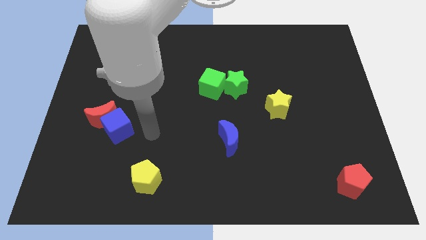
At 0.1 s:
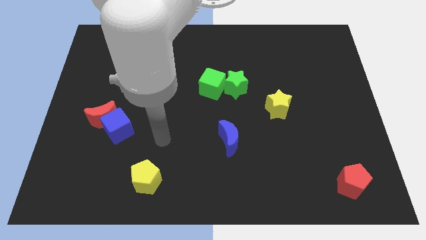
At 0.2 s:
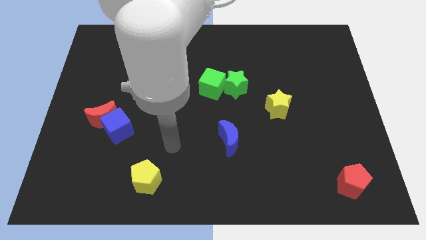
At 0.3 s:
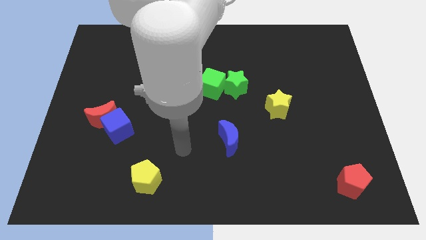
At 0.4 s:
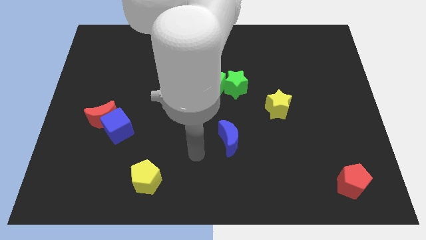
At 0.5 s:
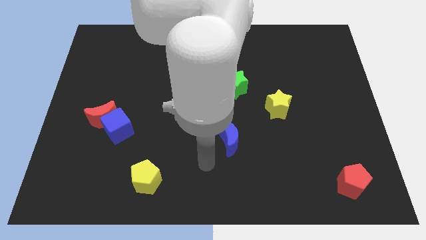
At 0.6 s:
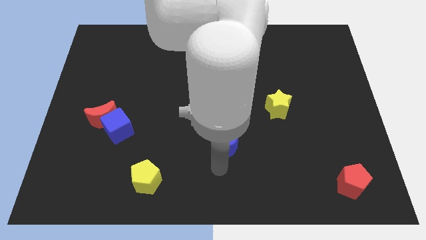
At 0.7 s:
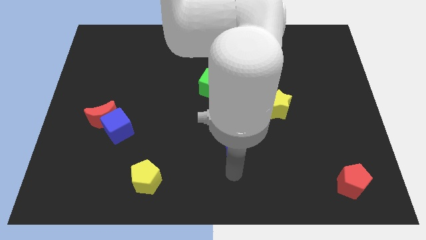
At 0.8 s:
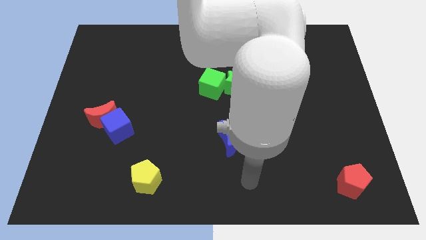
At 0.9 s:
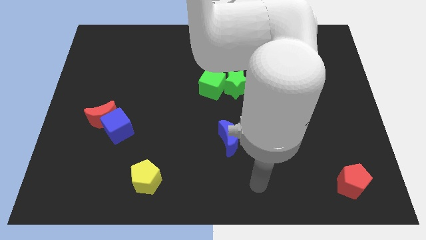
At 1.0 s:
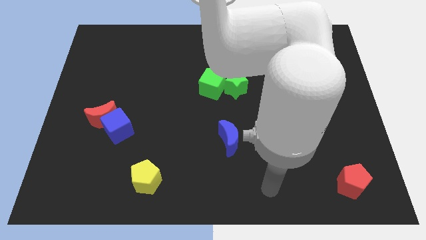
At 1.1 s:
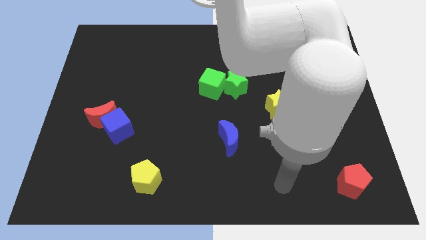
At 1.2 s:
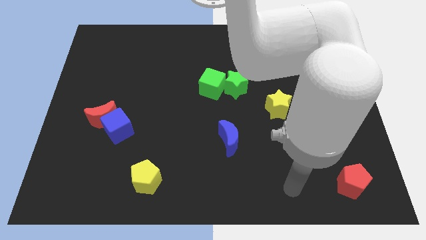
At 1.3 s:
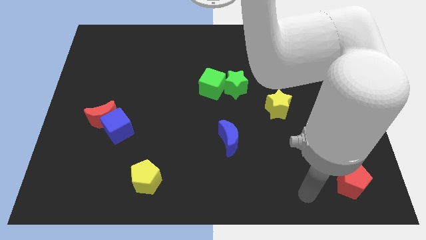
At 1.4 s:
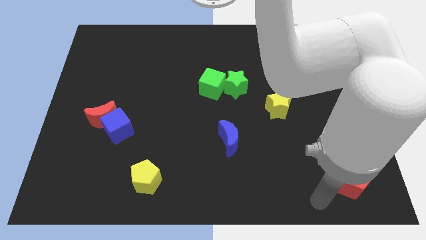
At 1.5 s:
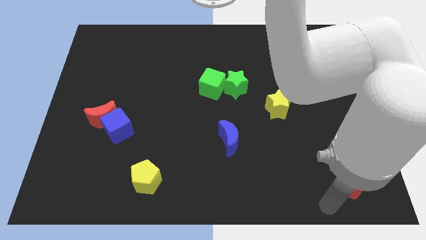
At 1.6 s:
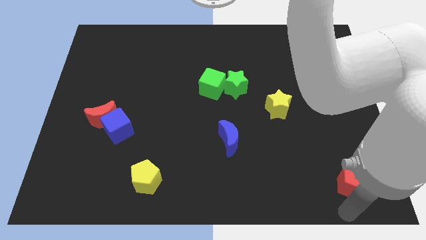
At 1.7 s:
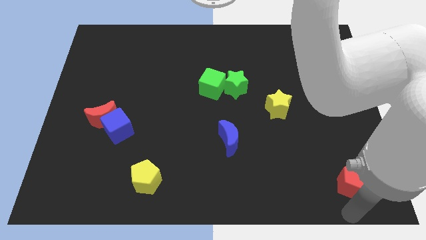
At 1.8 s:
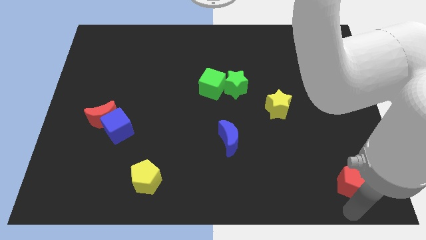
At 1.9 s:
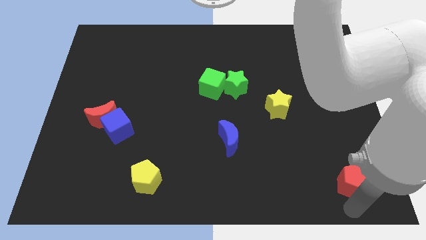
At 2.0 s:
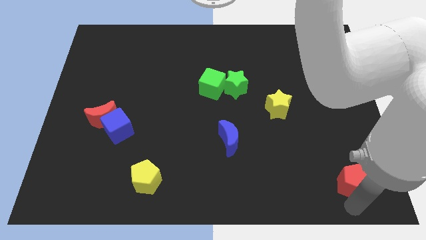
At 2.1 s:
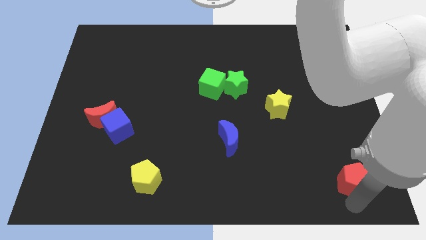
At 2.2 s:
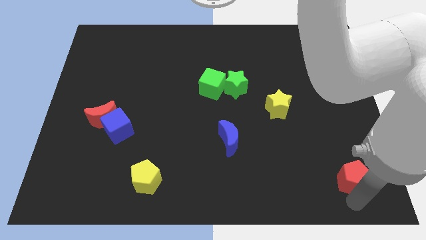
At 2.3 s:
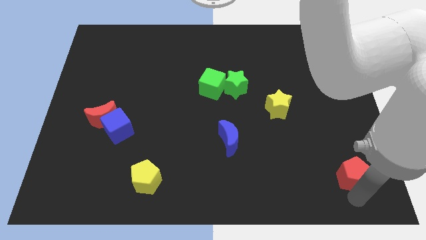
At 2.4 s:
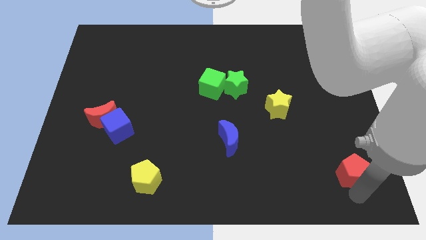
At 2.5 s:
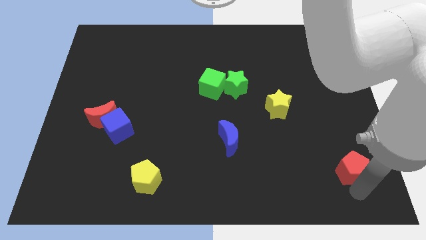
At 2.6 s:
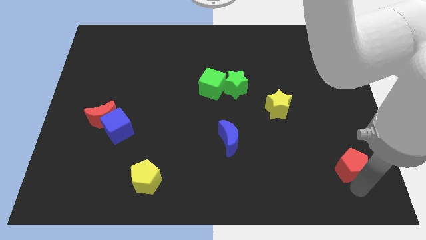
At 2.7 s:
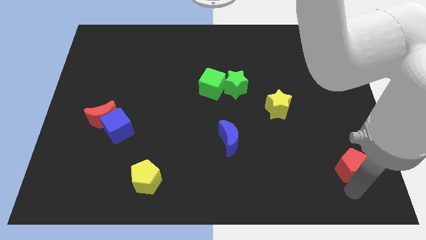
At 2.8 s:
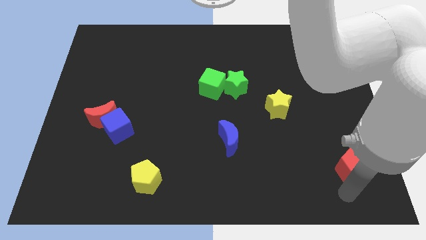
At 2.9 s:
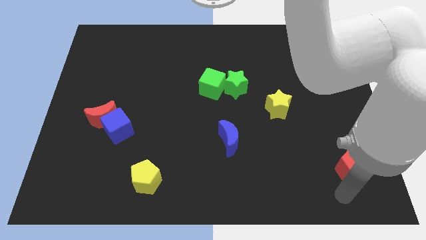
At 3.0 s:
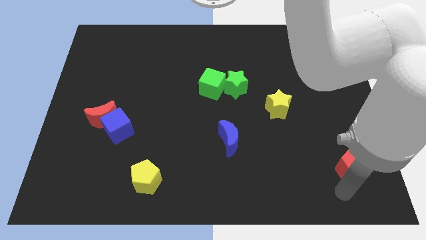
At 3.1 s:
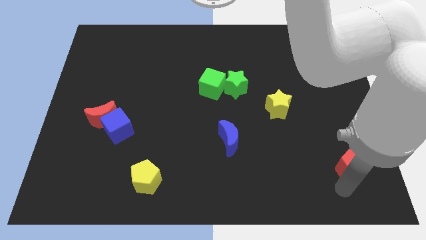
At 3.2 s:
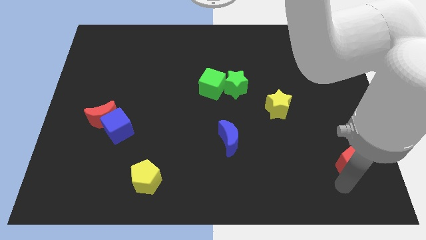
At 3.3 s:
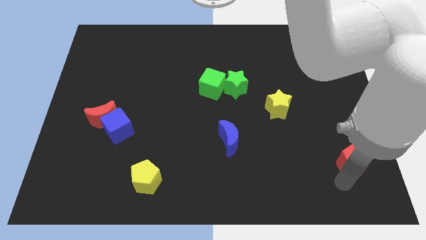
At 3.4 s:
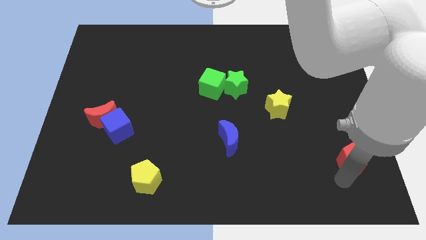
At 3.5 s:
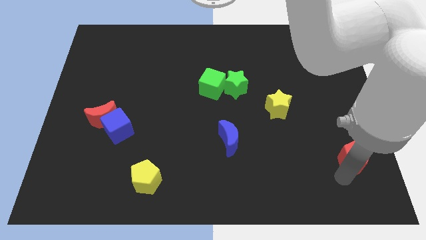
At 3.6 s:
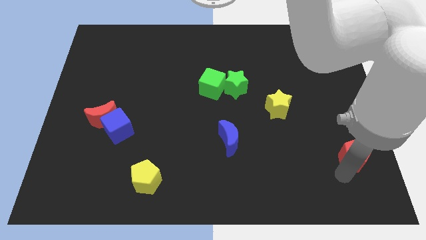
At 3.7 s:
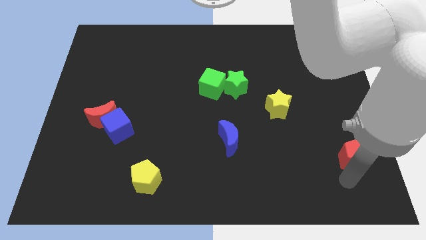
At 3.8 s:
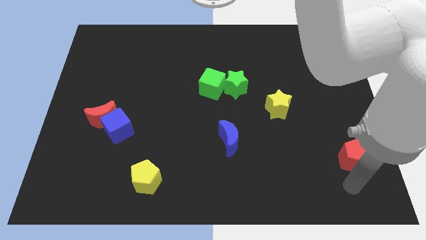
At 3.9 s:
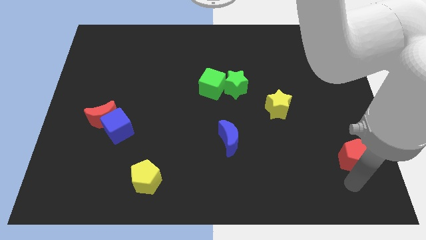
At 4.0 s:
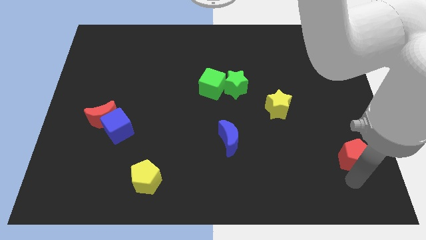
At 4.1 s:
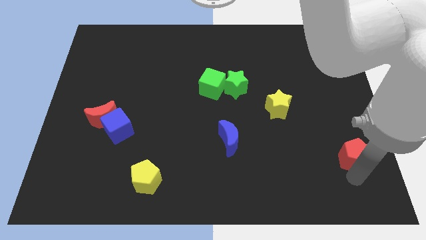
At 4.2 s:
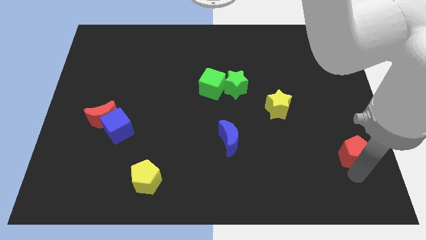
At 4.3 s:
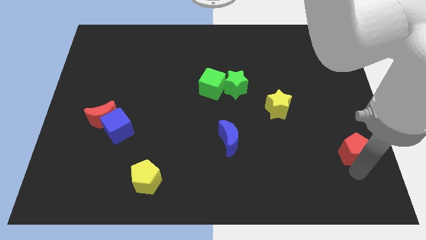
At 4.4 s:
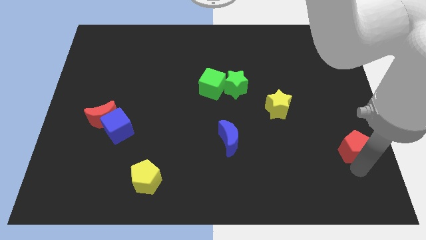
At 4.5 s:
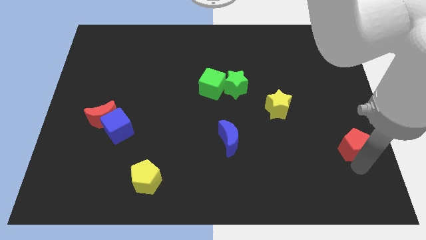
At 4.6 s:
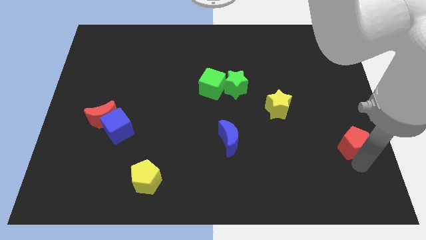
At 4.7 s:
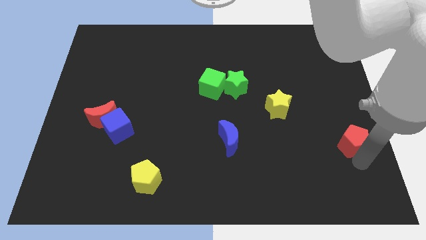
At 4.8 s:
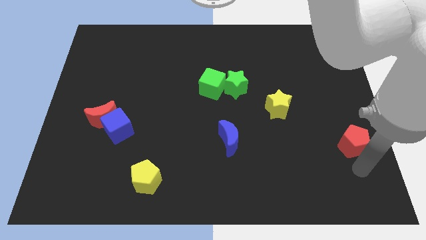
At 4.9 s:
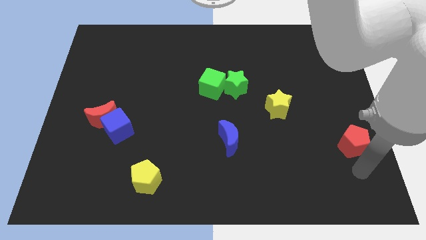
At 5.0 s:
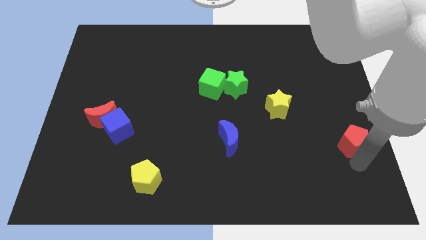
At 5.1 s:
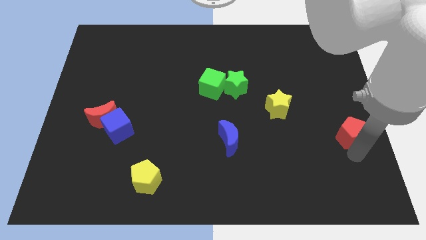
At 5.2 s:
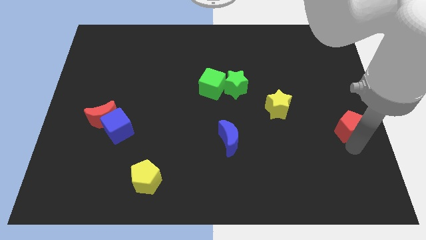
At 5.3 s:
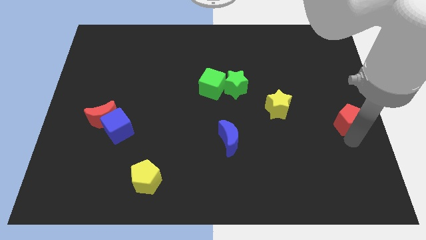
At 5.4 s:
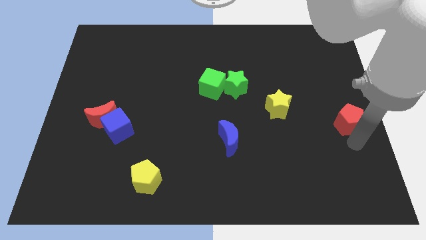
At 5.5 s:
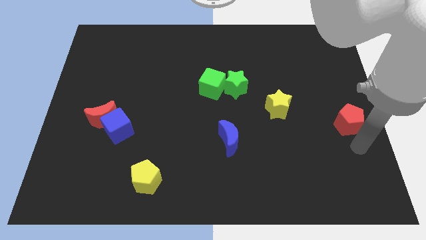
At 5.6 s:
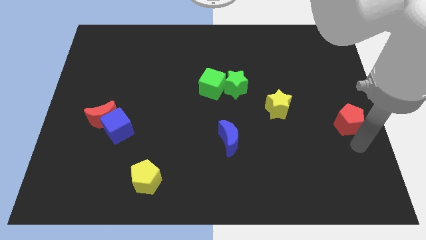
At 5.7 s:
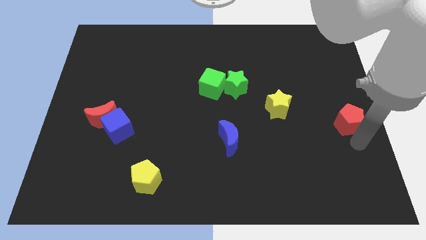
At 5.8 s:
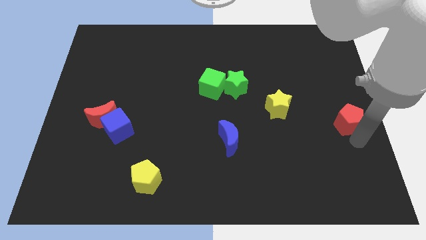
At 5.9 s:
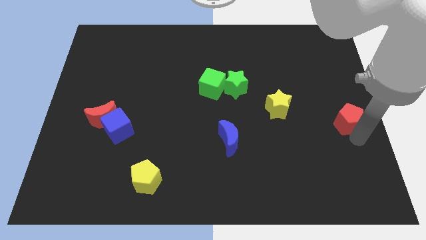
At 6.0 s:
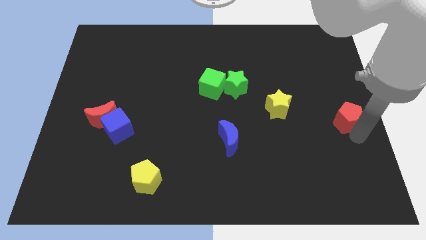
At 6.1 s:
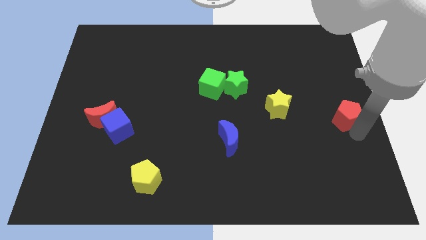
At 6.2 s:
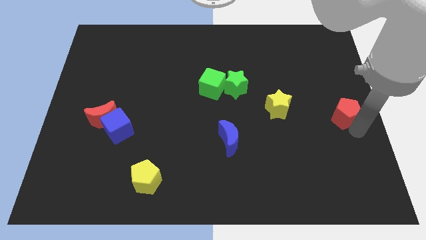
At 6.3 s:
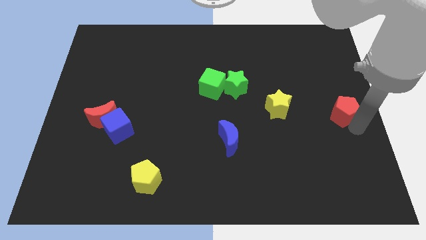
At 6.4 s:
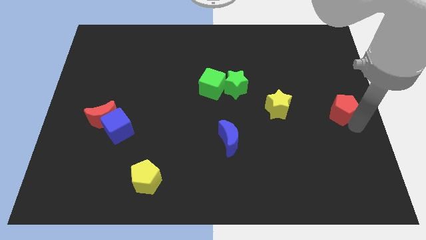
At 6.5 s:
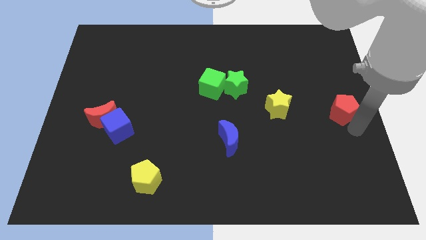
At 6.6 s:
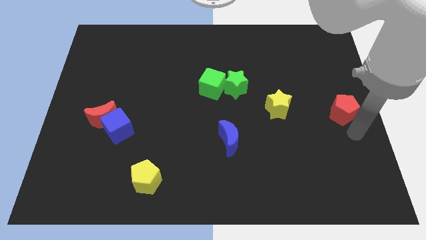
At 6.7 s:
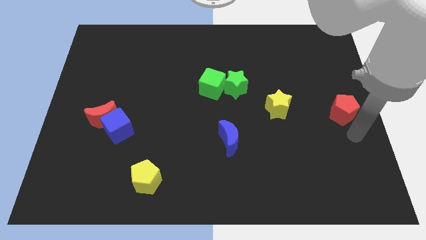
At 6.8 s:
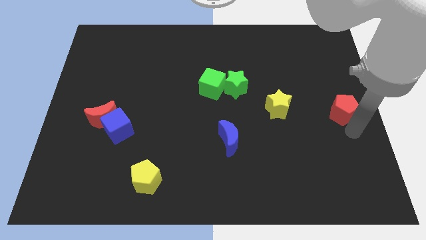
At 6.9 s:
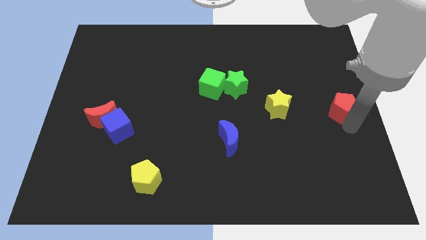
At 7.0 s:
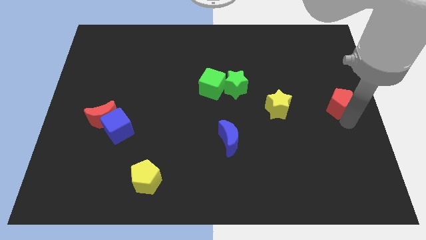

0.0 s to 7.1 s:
move the red pentagon up

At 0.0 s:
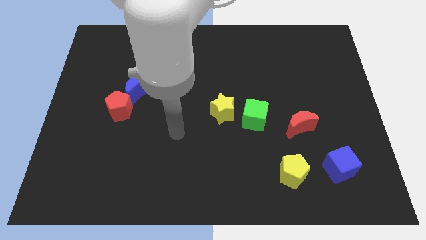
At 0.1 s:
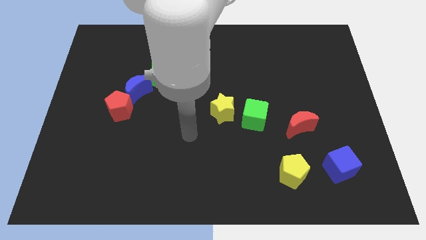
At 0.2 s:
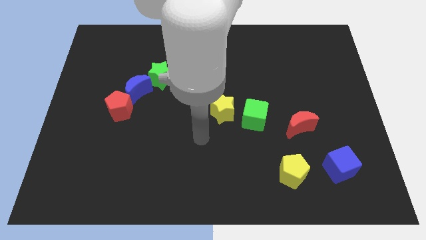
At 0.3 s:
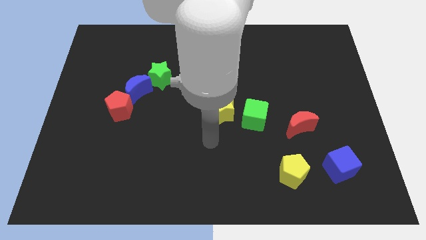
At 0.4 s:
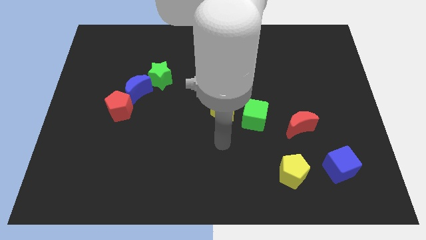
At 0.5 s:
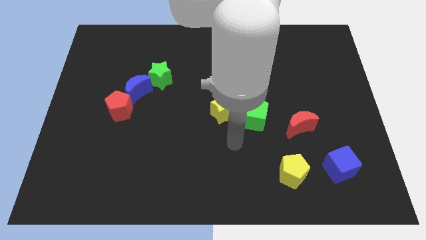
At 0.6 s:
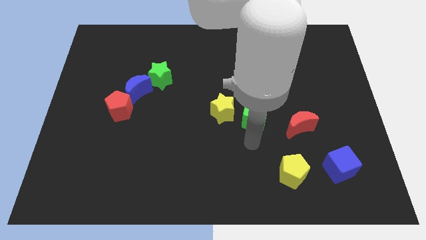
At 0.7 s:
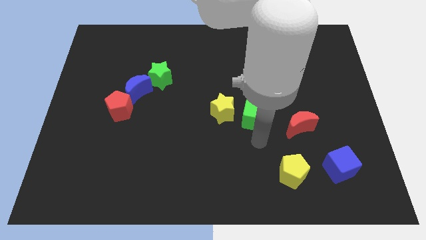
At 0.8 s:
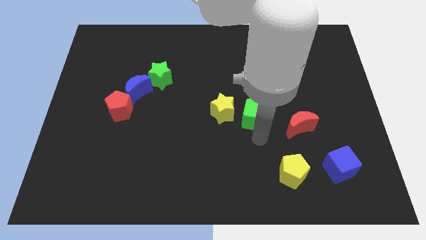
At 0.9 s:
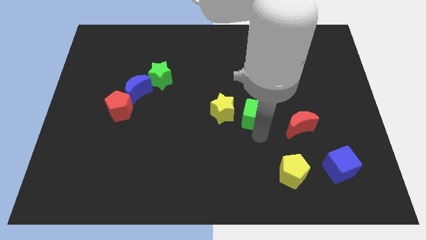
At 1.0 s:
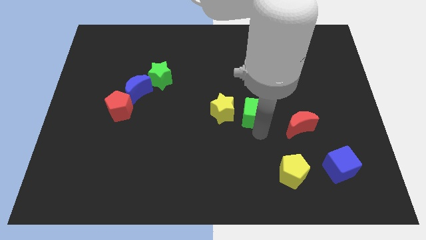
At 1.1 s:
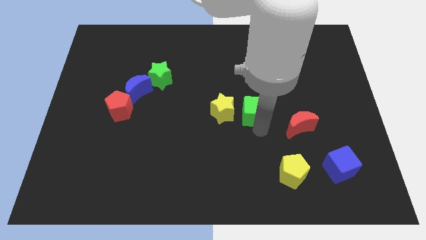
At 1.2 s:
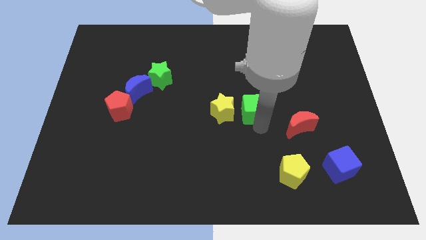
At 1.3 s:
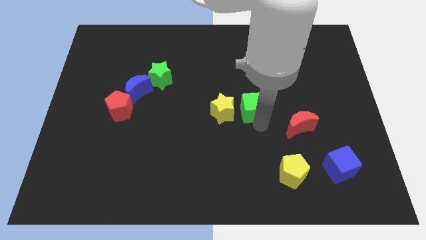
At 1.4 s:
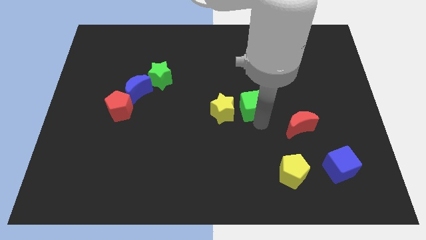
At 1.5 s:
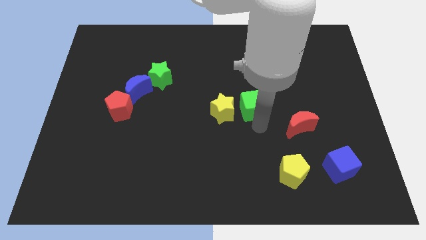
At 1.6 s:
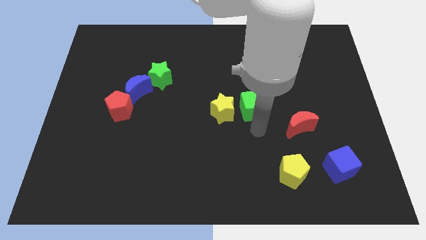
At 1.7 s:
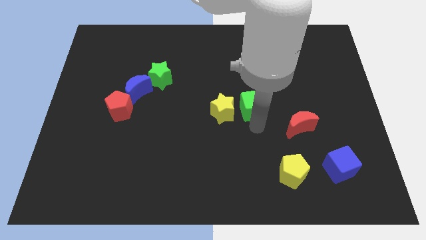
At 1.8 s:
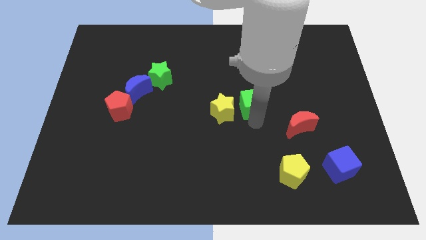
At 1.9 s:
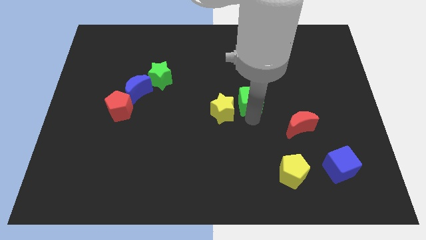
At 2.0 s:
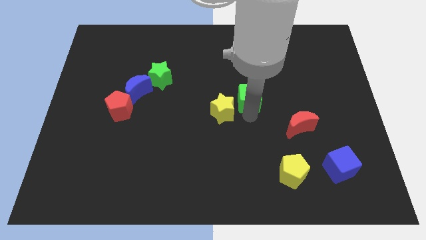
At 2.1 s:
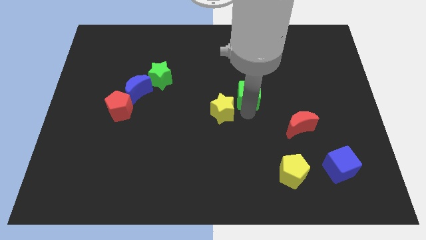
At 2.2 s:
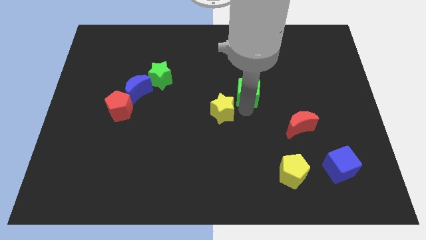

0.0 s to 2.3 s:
move the green cube up slightly
